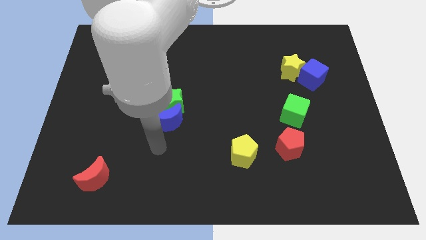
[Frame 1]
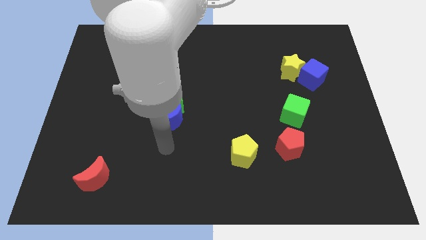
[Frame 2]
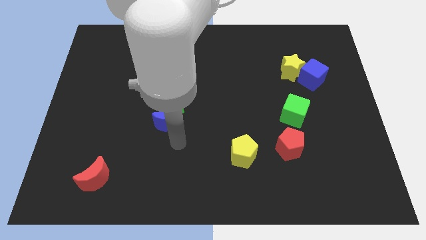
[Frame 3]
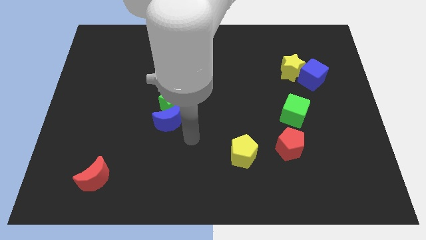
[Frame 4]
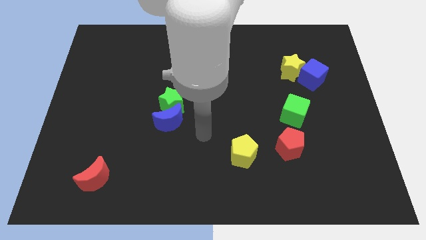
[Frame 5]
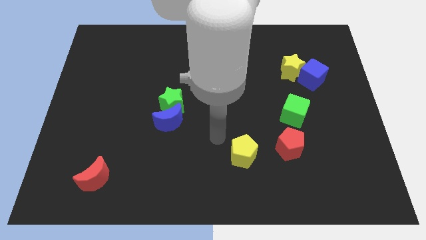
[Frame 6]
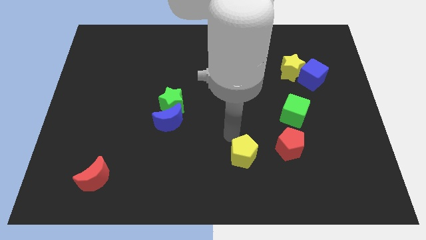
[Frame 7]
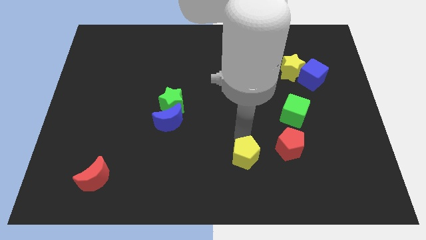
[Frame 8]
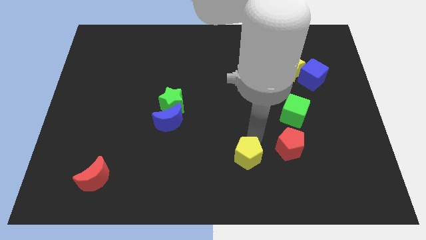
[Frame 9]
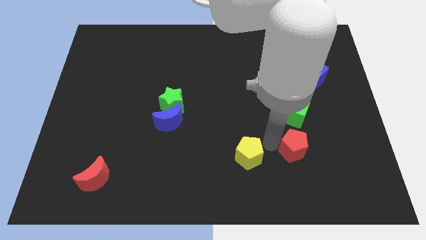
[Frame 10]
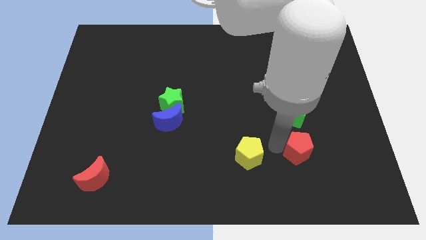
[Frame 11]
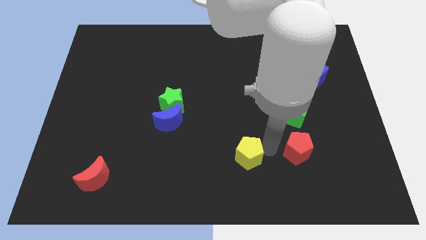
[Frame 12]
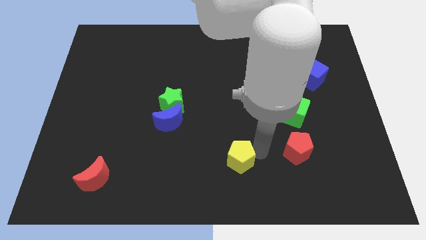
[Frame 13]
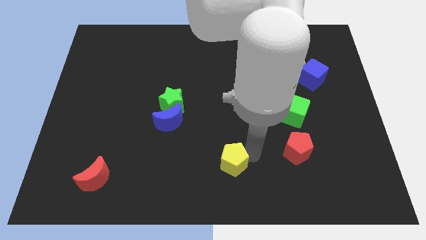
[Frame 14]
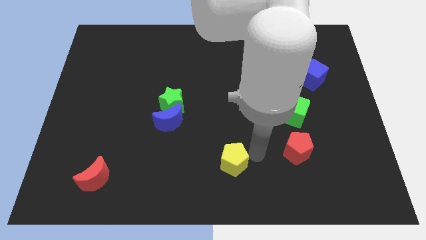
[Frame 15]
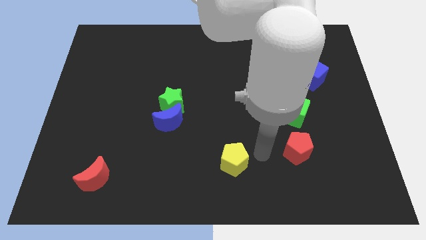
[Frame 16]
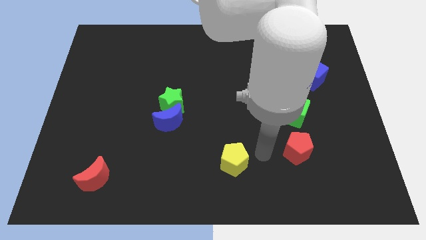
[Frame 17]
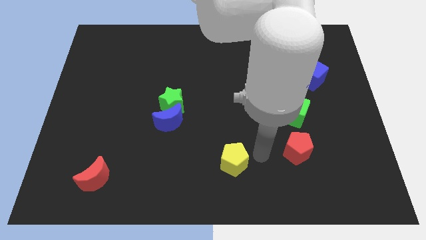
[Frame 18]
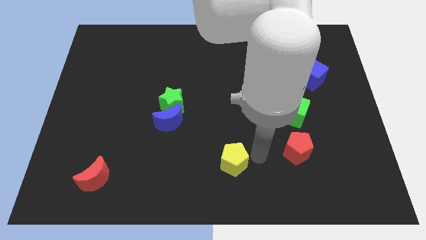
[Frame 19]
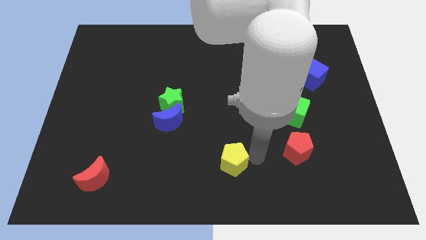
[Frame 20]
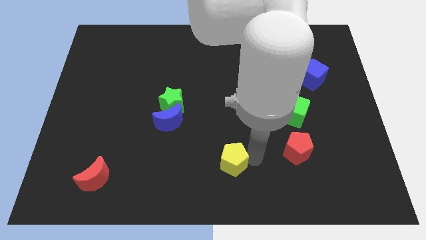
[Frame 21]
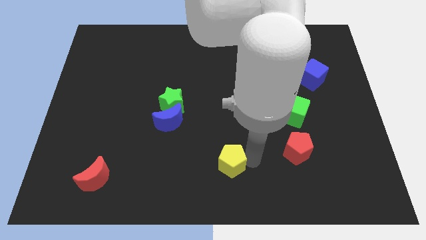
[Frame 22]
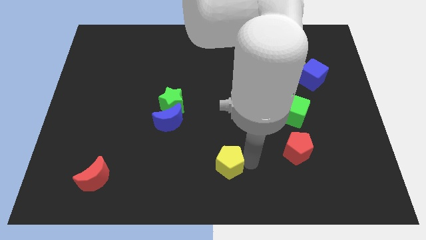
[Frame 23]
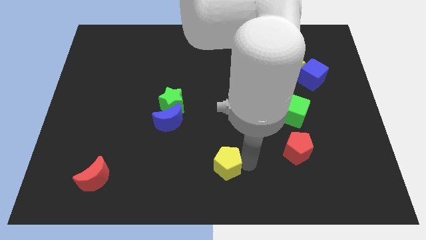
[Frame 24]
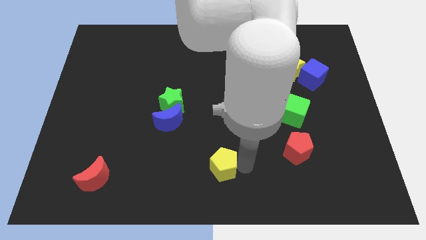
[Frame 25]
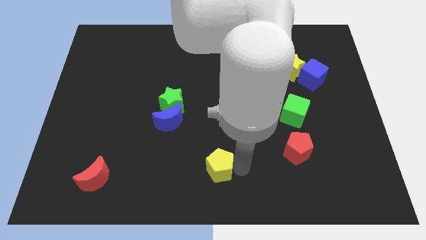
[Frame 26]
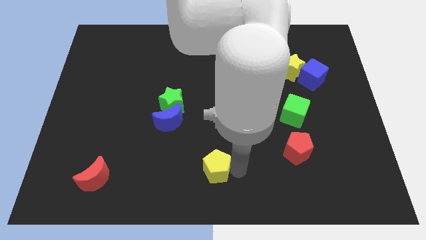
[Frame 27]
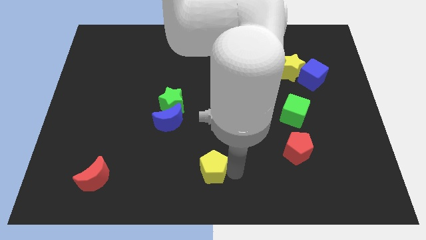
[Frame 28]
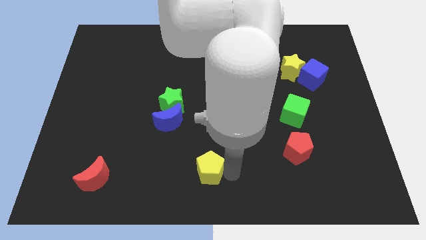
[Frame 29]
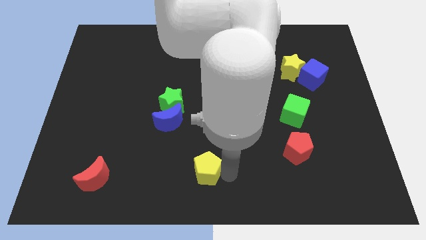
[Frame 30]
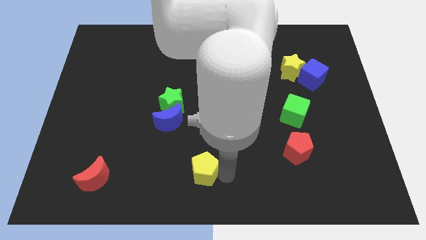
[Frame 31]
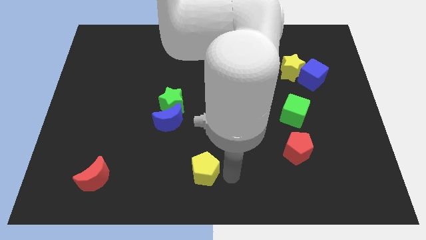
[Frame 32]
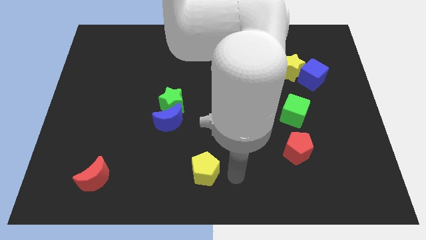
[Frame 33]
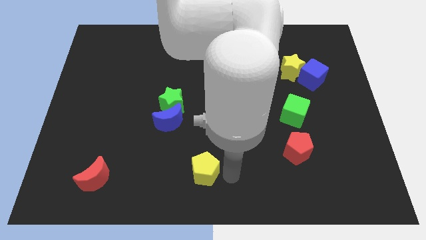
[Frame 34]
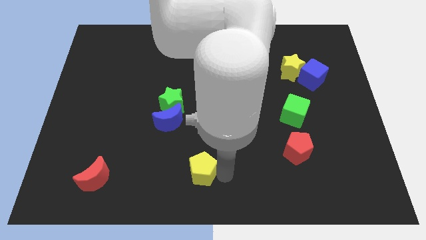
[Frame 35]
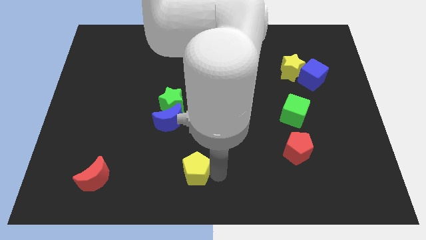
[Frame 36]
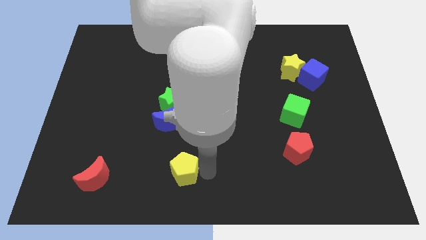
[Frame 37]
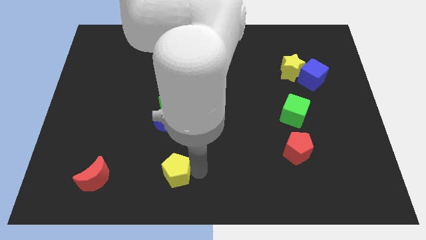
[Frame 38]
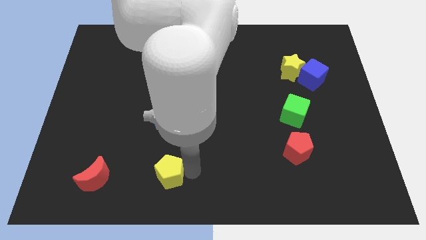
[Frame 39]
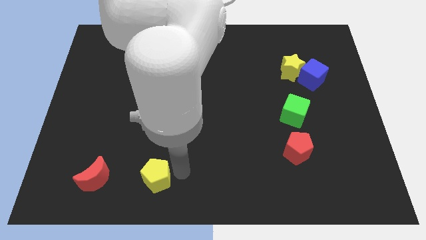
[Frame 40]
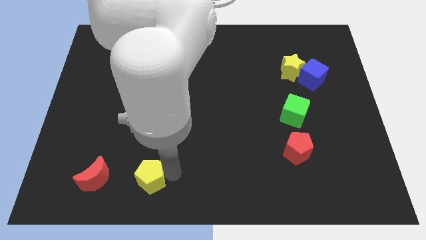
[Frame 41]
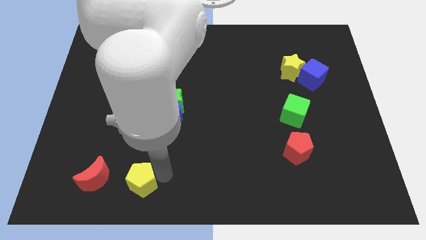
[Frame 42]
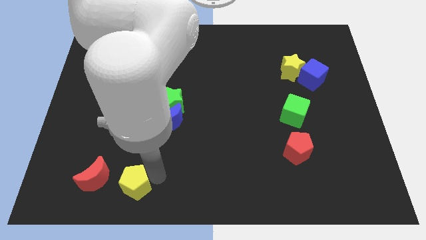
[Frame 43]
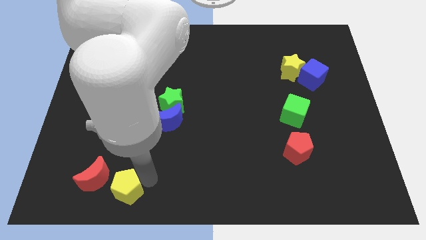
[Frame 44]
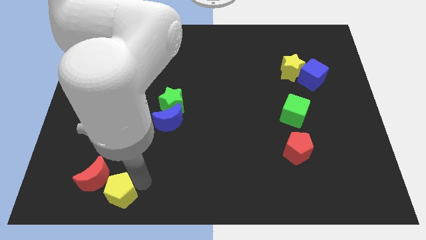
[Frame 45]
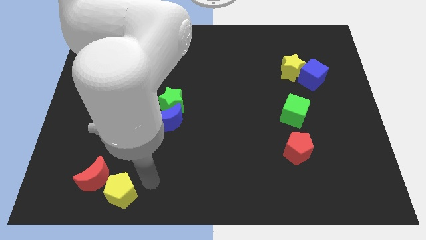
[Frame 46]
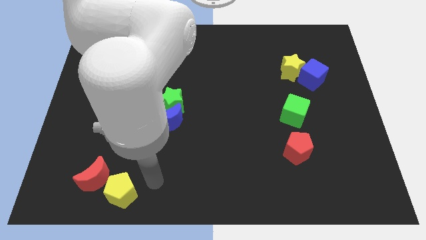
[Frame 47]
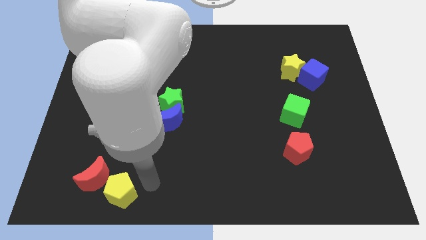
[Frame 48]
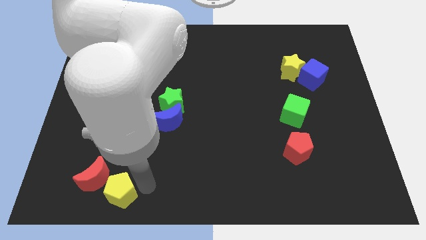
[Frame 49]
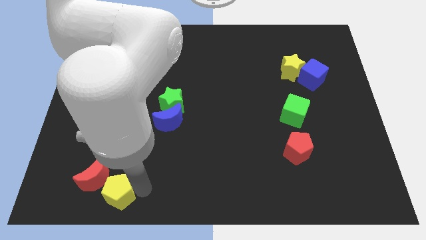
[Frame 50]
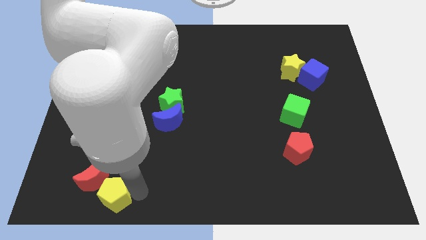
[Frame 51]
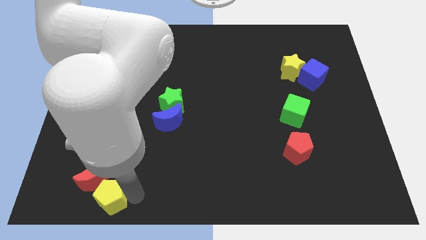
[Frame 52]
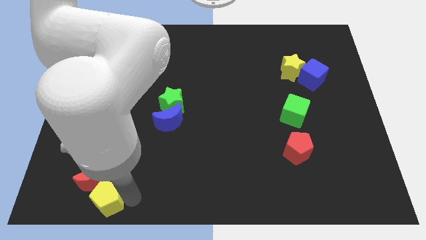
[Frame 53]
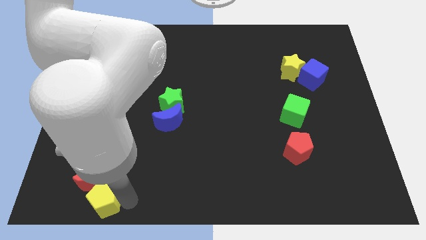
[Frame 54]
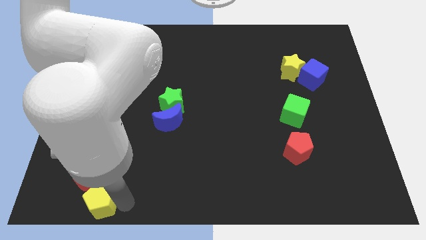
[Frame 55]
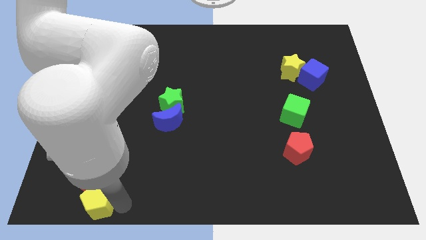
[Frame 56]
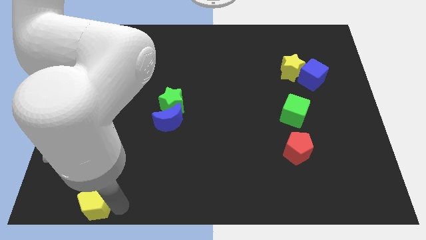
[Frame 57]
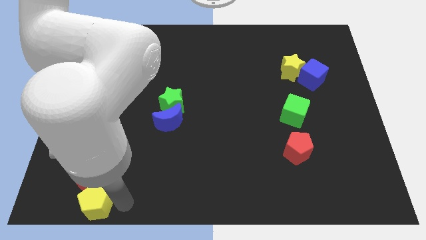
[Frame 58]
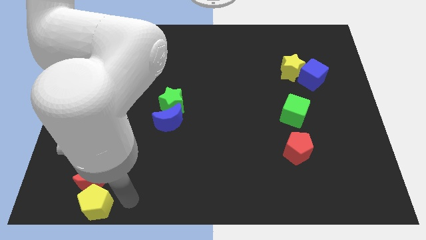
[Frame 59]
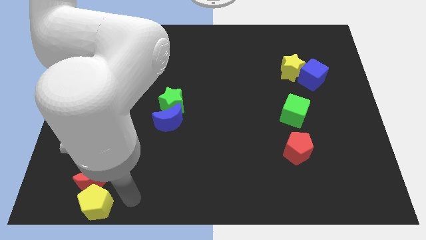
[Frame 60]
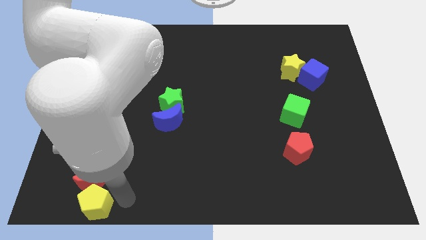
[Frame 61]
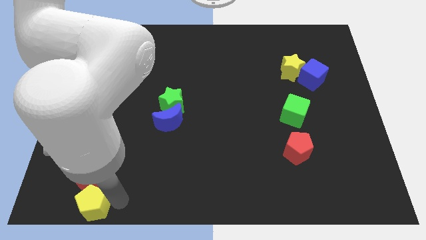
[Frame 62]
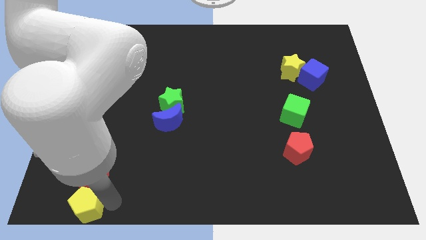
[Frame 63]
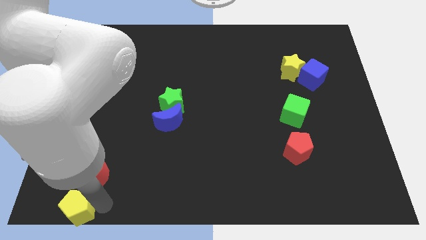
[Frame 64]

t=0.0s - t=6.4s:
put the yellow pentagon to the bottom left corner
